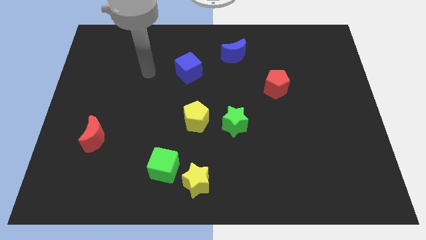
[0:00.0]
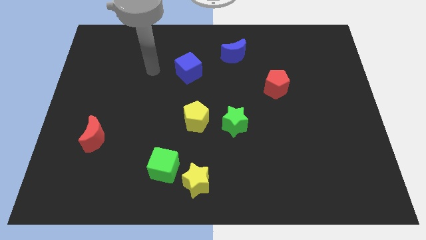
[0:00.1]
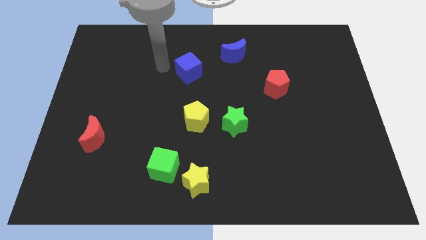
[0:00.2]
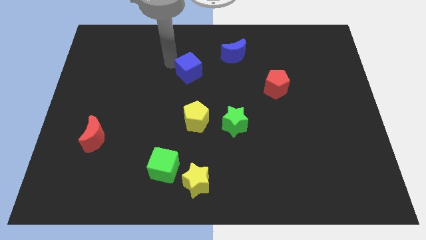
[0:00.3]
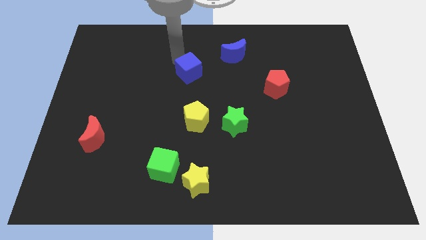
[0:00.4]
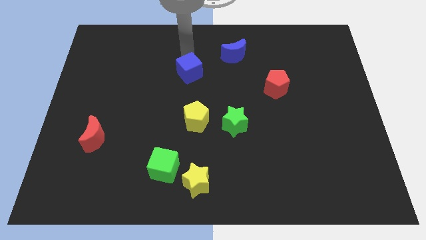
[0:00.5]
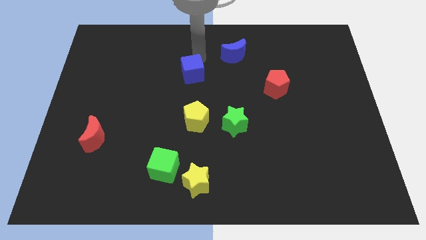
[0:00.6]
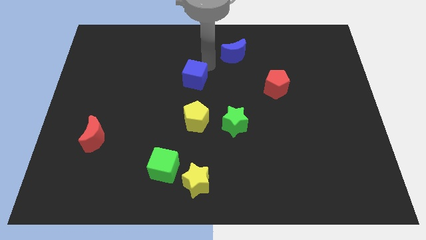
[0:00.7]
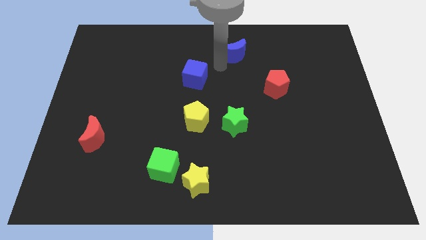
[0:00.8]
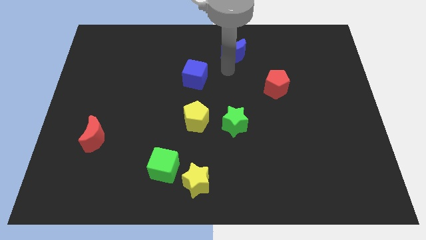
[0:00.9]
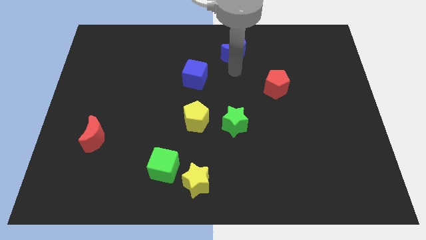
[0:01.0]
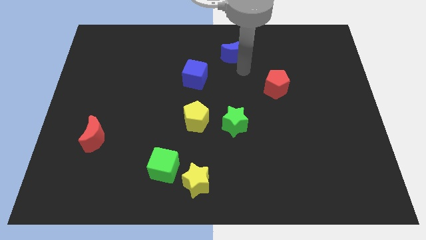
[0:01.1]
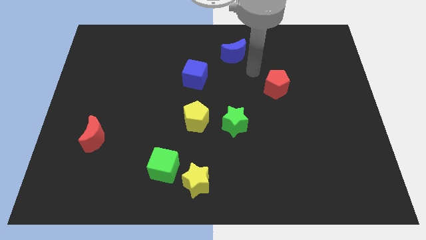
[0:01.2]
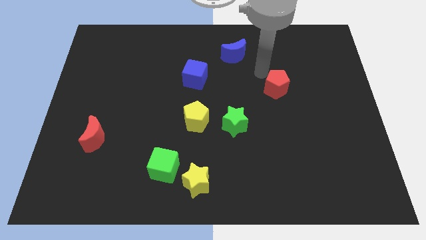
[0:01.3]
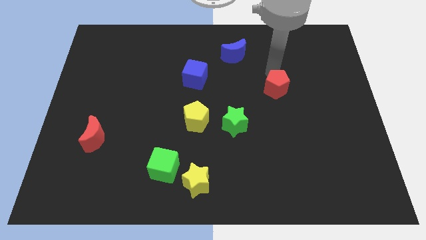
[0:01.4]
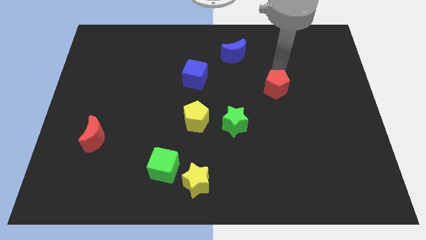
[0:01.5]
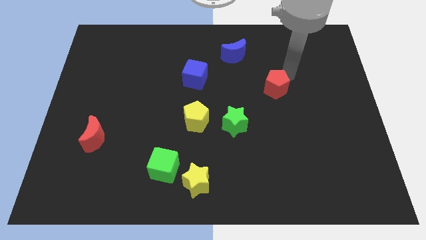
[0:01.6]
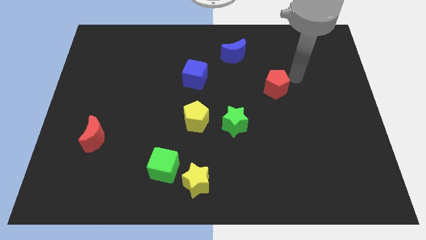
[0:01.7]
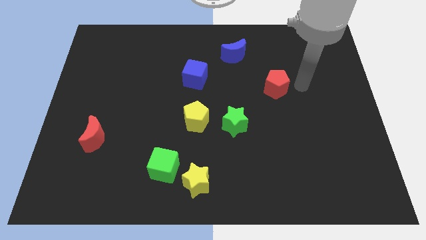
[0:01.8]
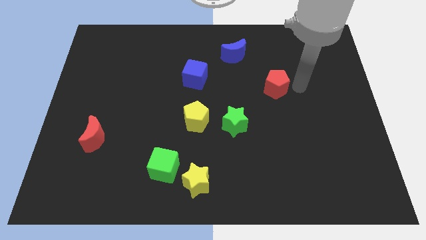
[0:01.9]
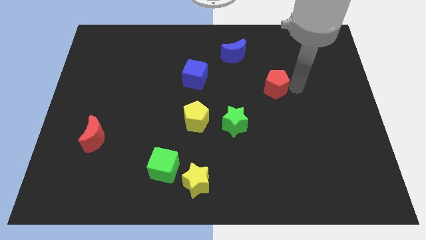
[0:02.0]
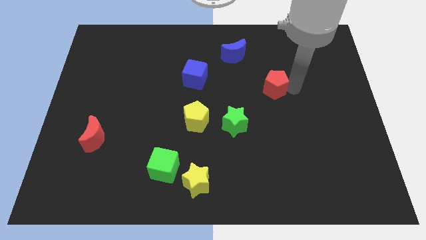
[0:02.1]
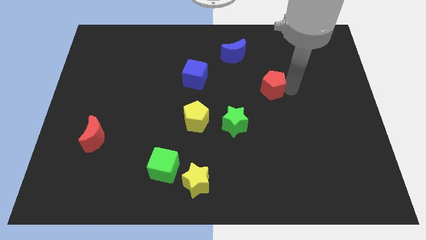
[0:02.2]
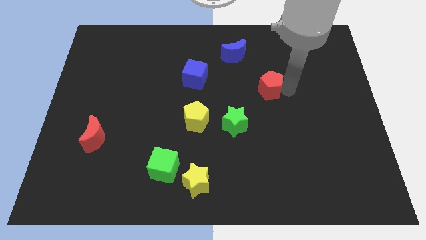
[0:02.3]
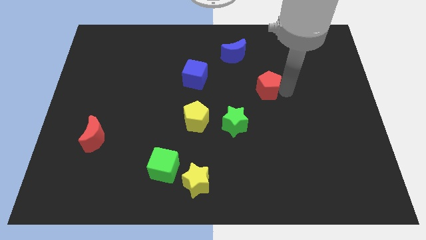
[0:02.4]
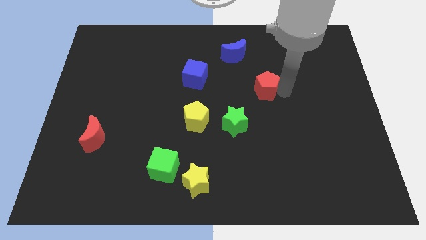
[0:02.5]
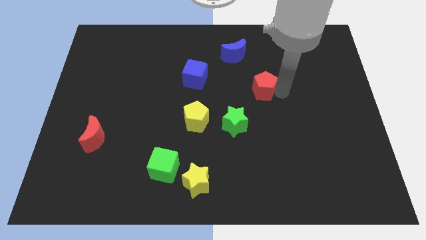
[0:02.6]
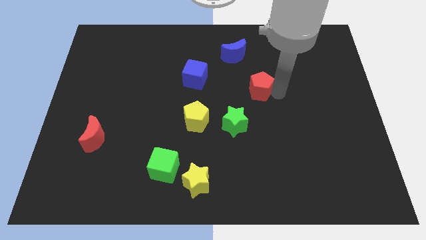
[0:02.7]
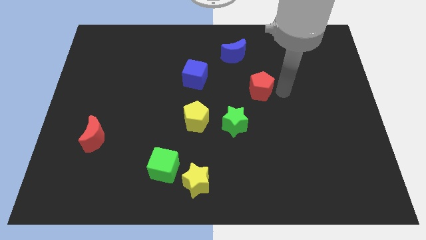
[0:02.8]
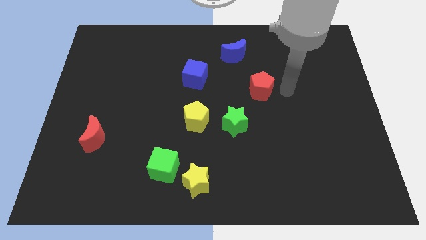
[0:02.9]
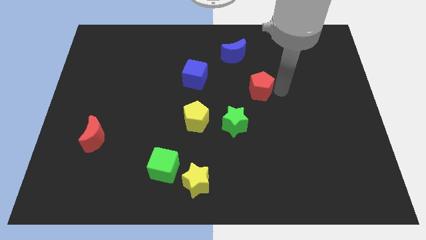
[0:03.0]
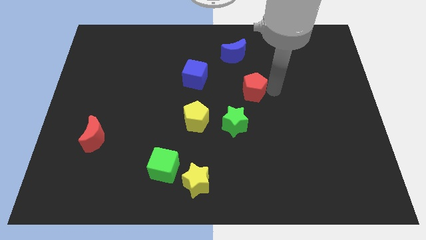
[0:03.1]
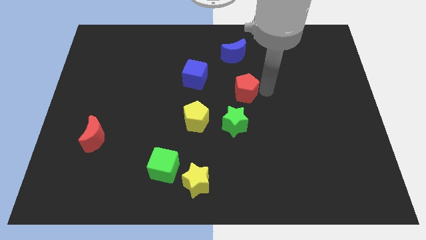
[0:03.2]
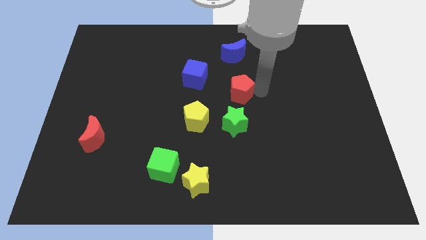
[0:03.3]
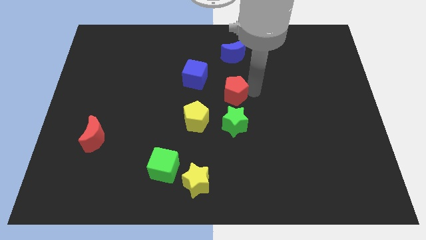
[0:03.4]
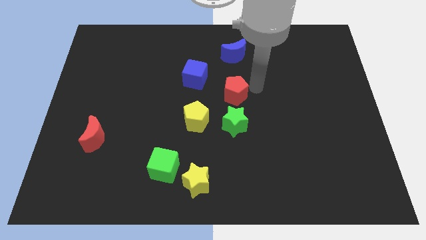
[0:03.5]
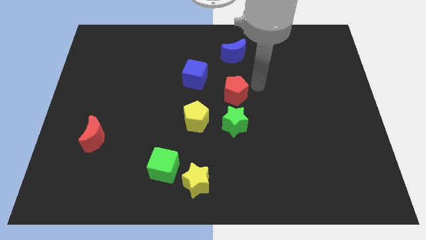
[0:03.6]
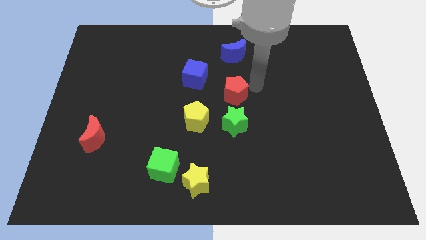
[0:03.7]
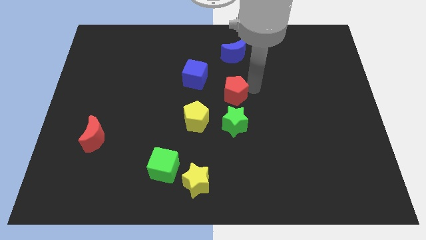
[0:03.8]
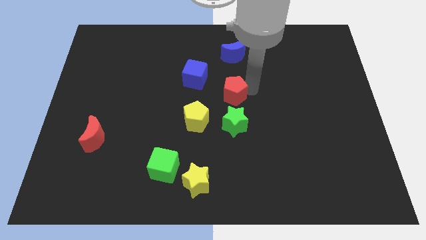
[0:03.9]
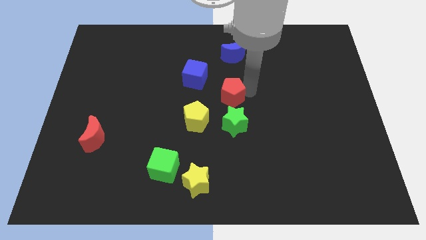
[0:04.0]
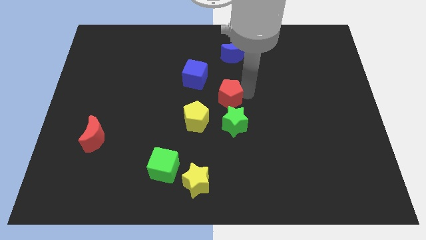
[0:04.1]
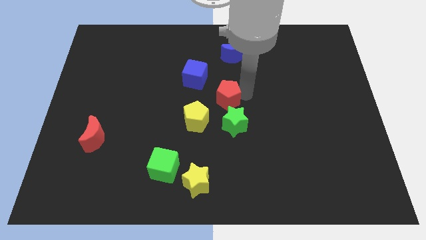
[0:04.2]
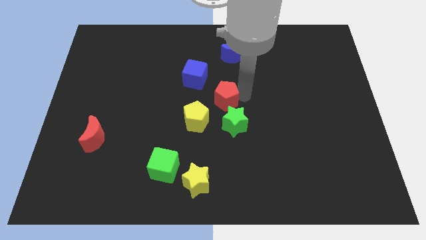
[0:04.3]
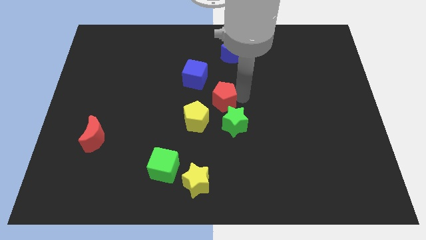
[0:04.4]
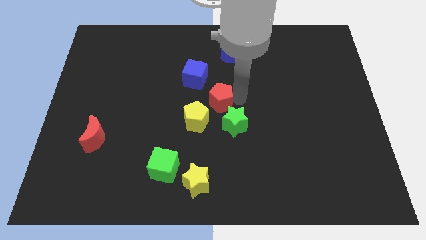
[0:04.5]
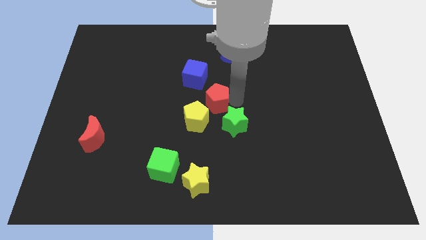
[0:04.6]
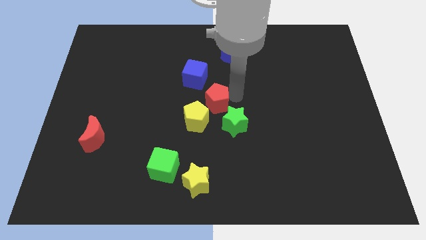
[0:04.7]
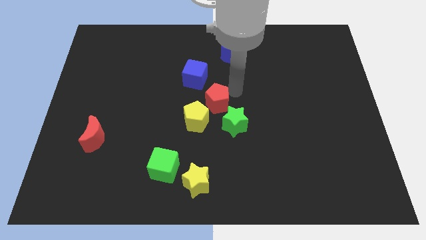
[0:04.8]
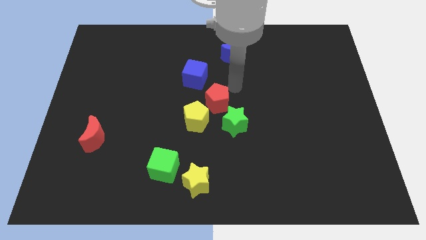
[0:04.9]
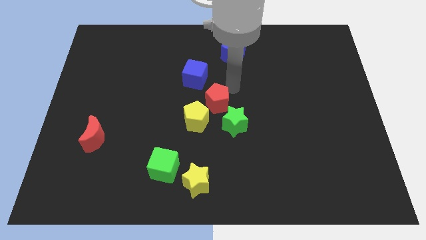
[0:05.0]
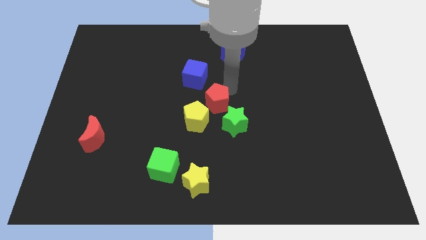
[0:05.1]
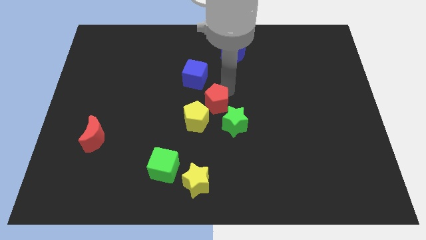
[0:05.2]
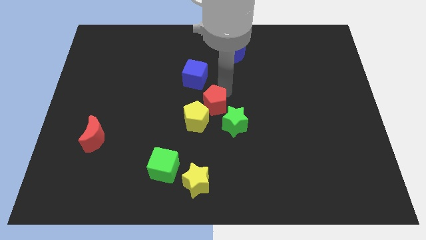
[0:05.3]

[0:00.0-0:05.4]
put the red pentagon close to the yellow pentagon

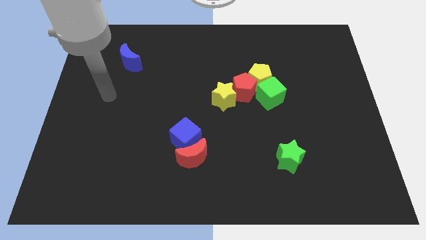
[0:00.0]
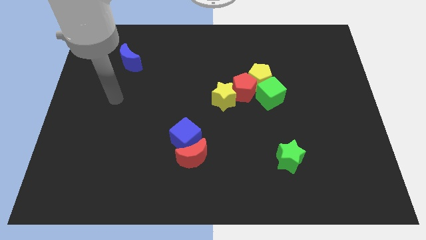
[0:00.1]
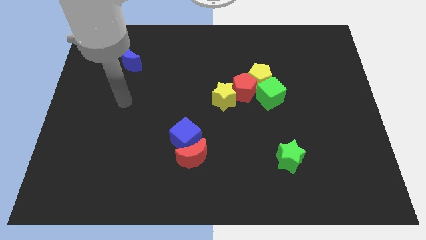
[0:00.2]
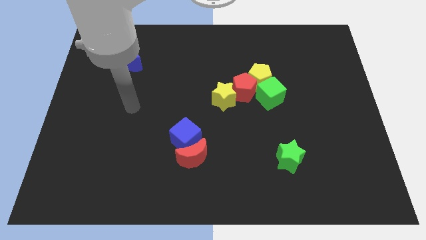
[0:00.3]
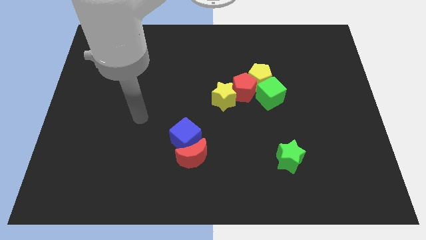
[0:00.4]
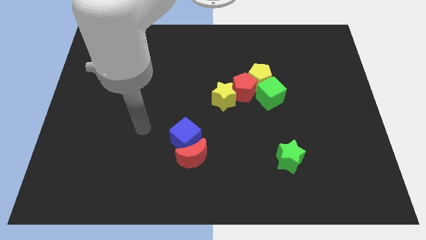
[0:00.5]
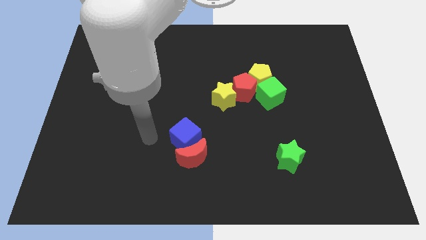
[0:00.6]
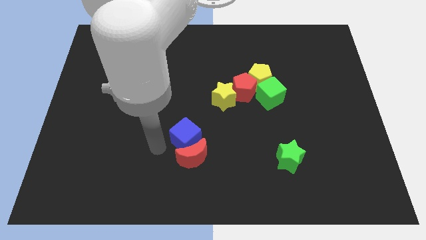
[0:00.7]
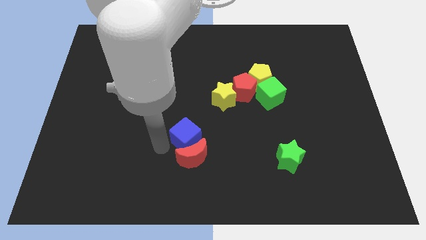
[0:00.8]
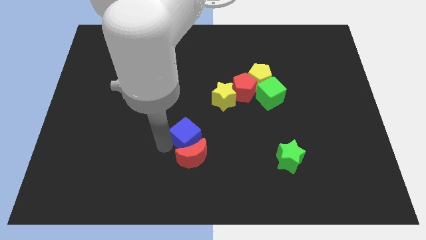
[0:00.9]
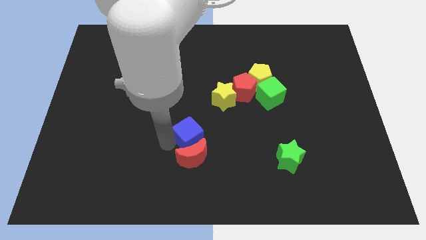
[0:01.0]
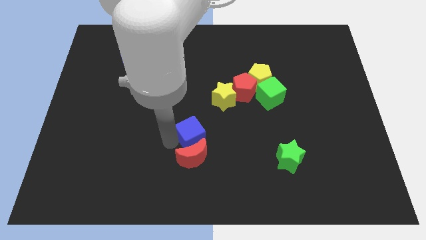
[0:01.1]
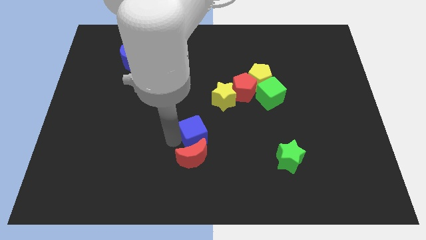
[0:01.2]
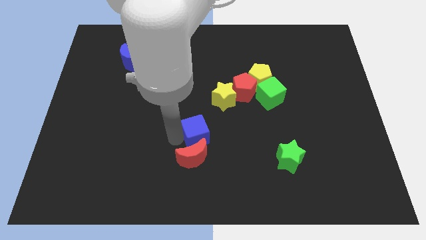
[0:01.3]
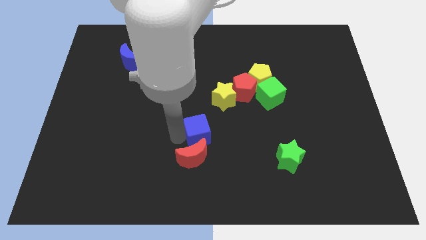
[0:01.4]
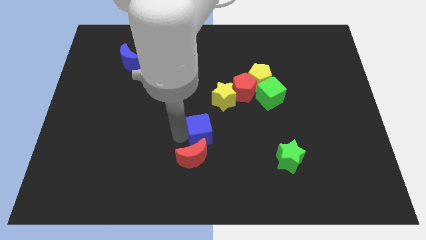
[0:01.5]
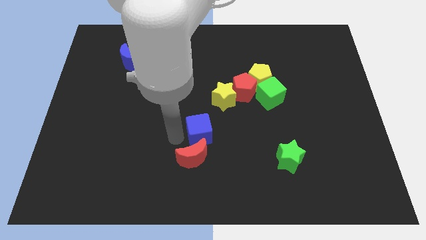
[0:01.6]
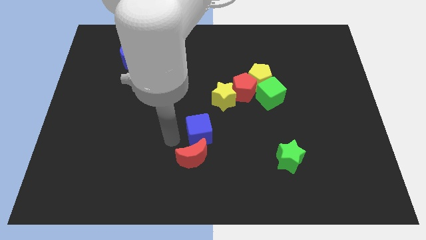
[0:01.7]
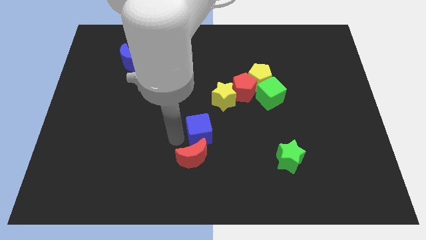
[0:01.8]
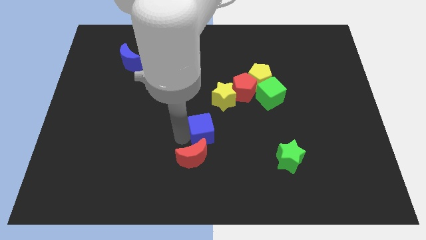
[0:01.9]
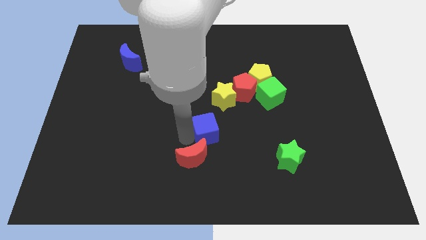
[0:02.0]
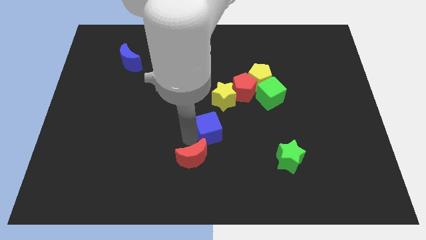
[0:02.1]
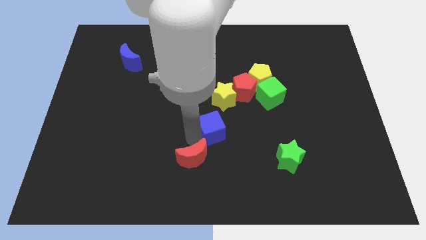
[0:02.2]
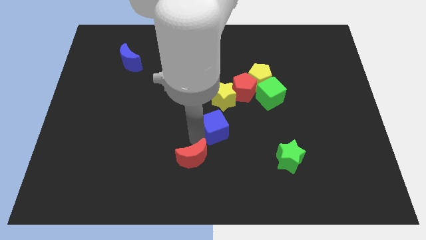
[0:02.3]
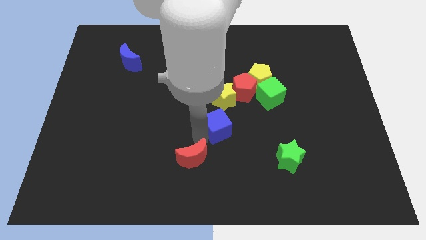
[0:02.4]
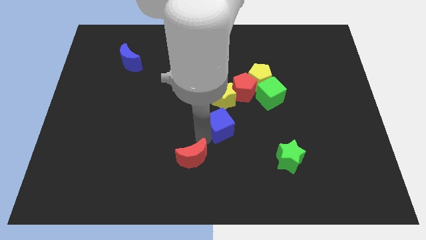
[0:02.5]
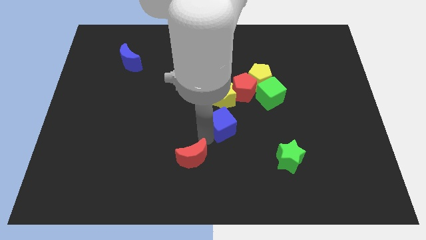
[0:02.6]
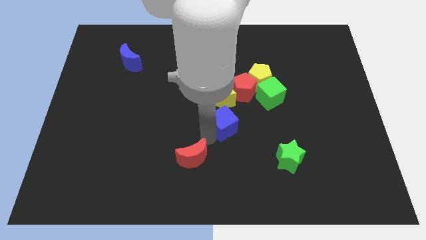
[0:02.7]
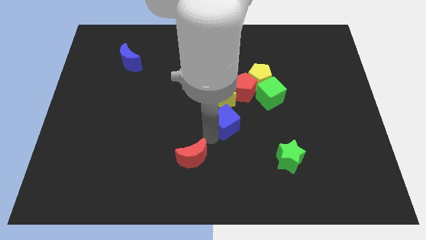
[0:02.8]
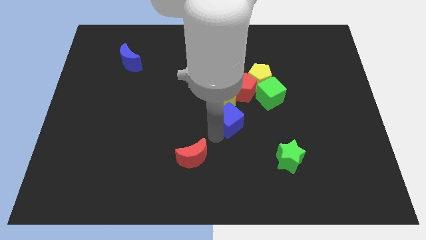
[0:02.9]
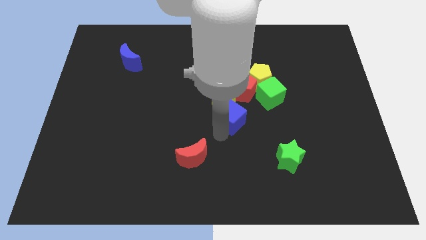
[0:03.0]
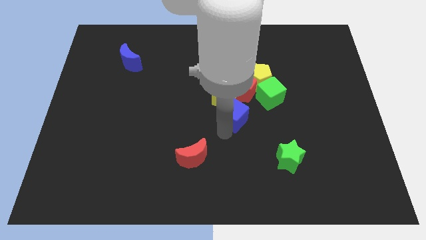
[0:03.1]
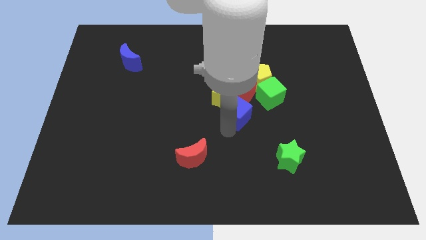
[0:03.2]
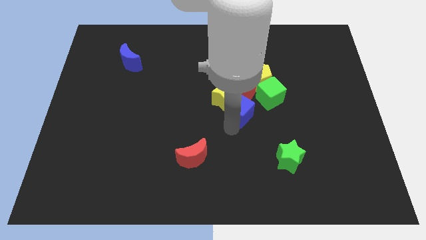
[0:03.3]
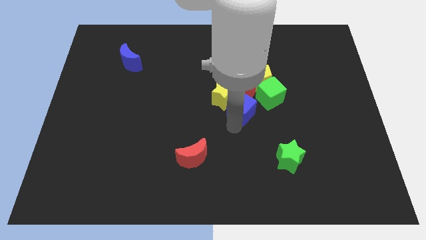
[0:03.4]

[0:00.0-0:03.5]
push the blue cube to the red pentagon
